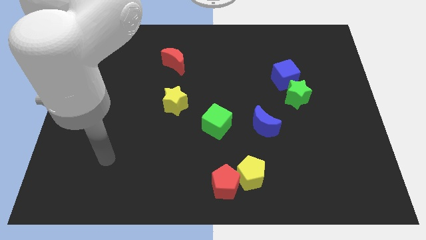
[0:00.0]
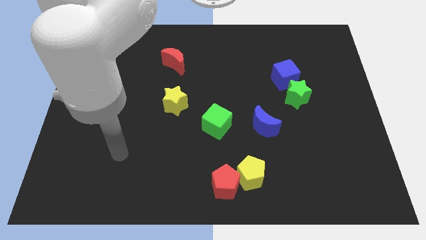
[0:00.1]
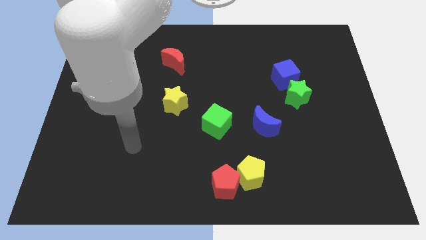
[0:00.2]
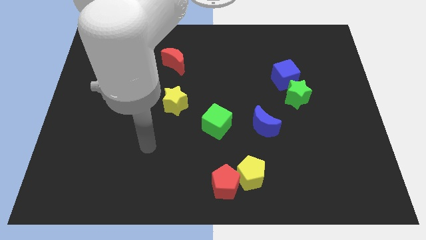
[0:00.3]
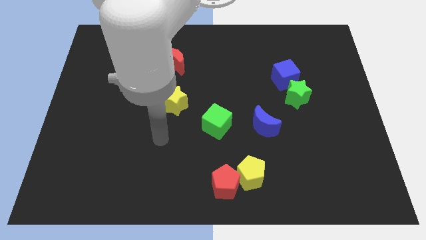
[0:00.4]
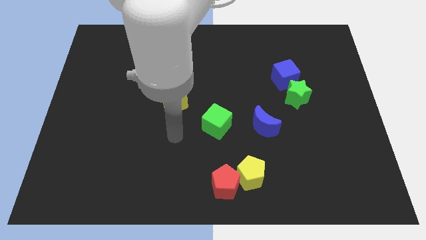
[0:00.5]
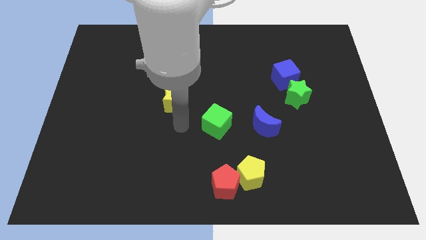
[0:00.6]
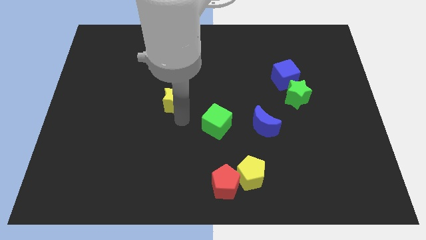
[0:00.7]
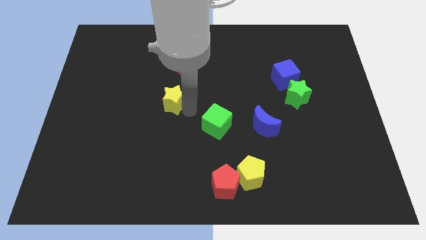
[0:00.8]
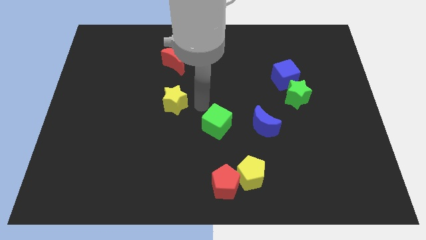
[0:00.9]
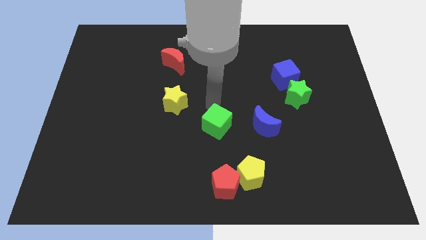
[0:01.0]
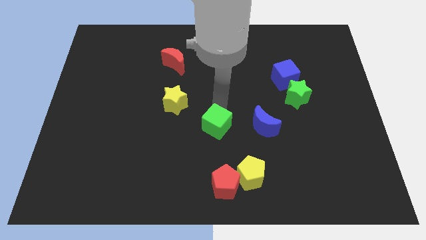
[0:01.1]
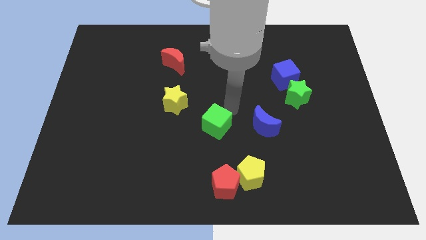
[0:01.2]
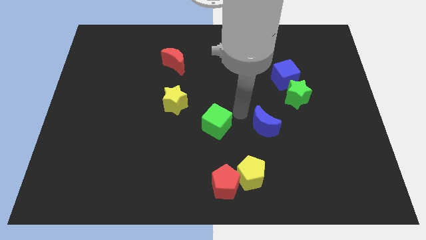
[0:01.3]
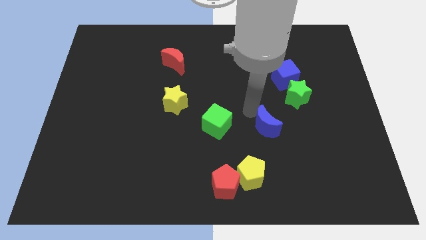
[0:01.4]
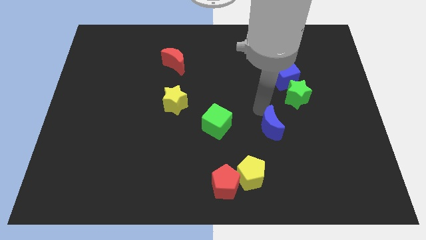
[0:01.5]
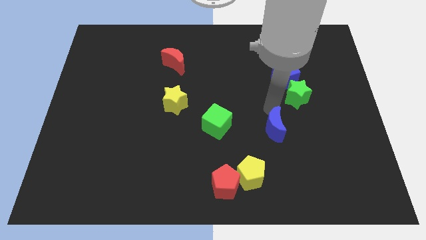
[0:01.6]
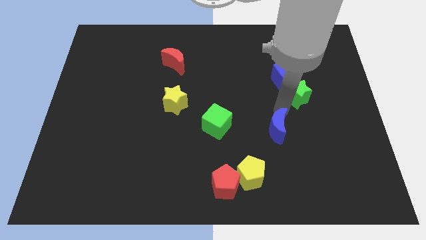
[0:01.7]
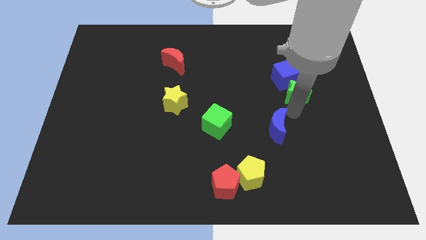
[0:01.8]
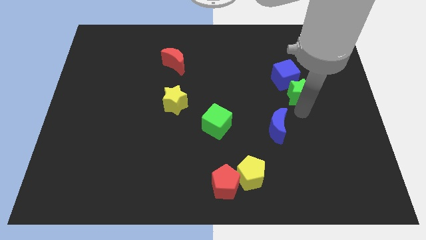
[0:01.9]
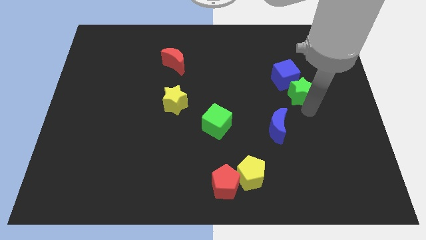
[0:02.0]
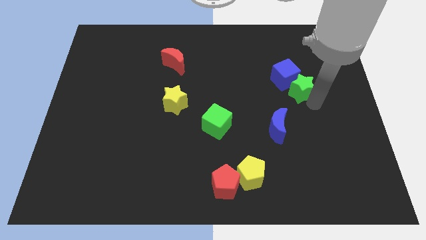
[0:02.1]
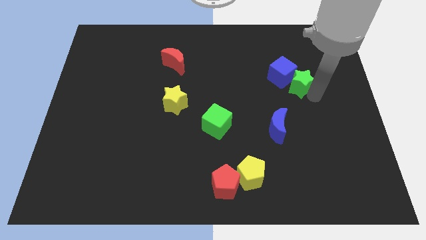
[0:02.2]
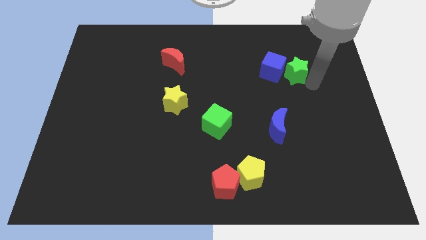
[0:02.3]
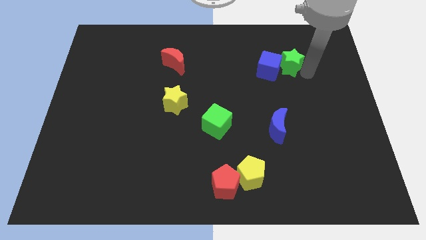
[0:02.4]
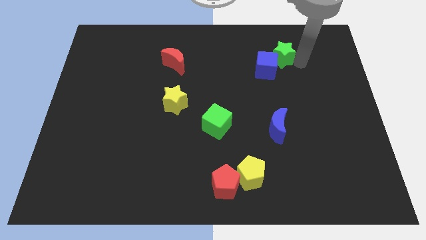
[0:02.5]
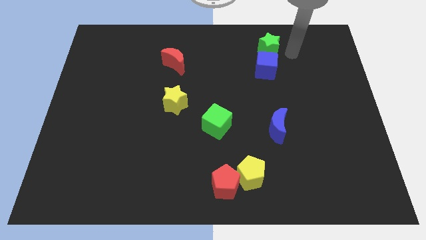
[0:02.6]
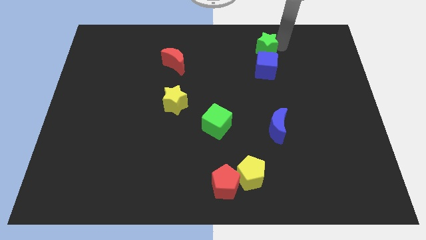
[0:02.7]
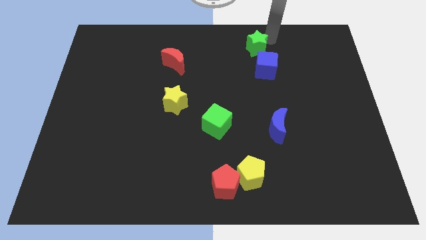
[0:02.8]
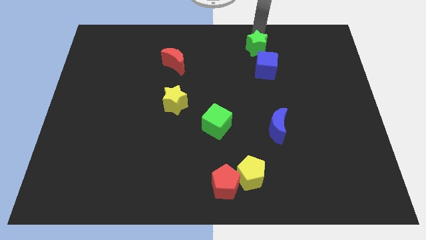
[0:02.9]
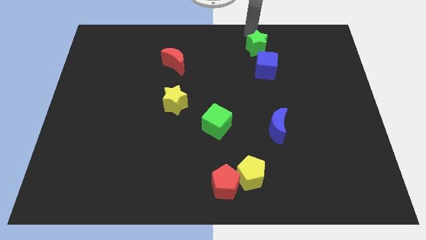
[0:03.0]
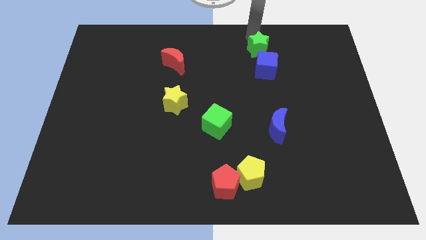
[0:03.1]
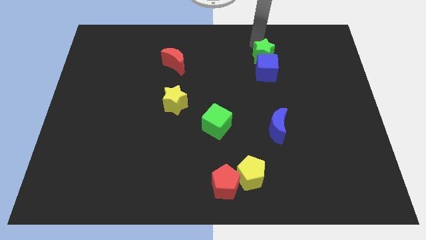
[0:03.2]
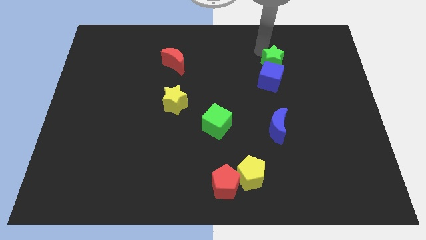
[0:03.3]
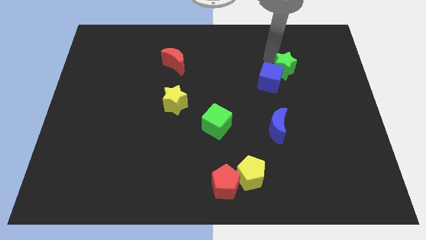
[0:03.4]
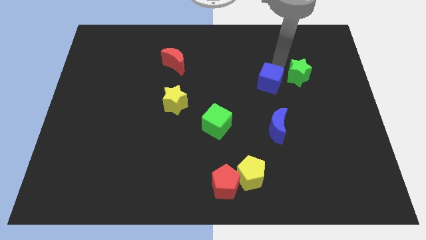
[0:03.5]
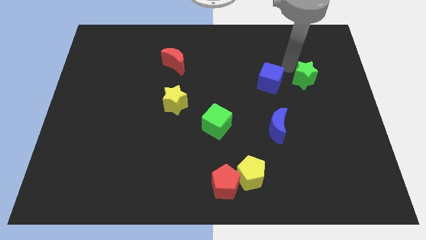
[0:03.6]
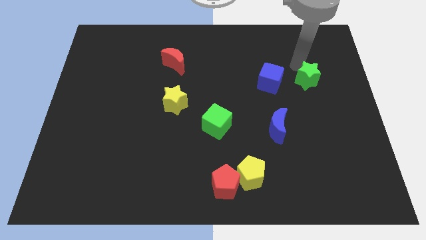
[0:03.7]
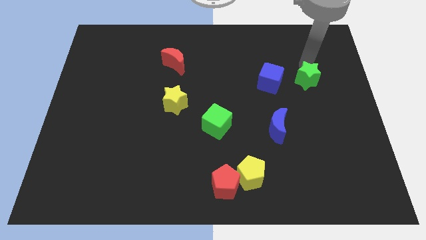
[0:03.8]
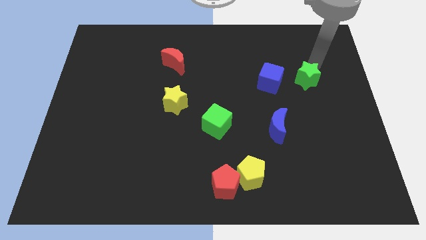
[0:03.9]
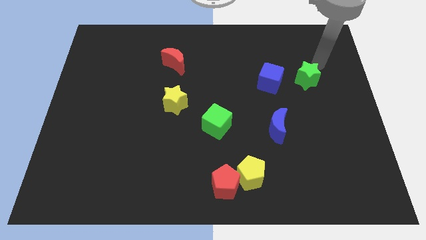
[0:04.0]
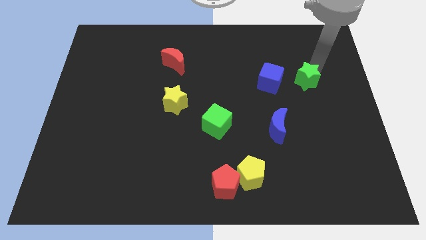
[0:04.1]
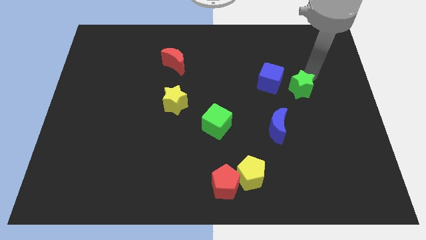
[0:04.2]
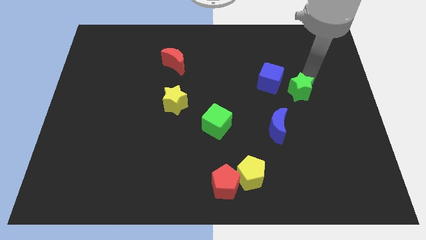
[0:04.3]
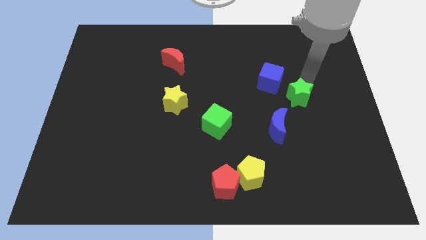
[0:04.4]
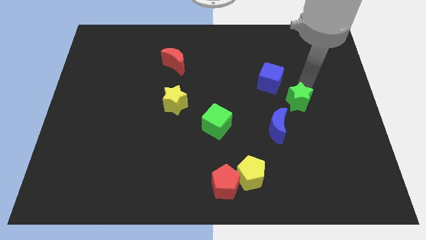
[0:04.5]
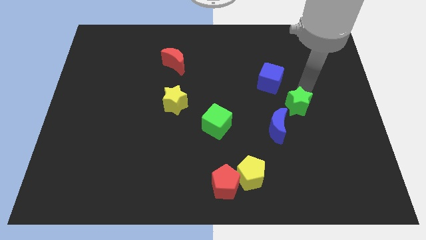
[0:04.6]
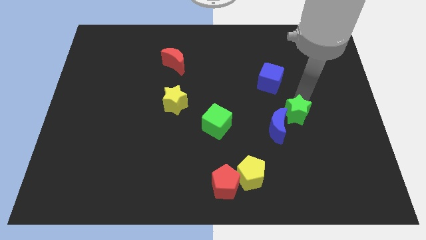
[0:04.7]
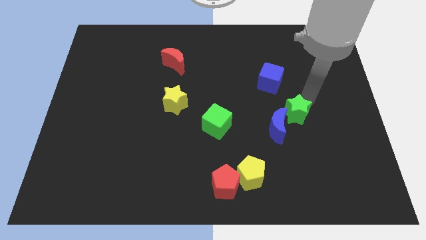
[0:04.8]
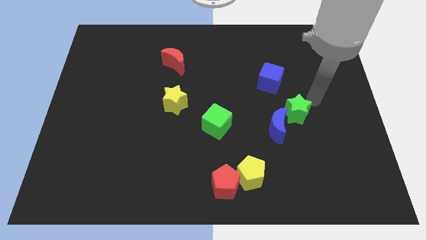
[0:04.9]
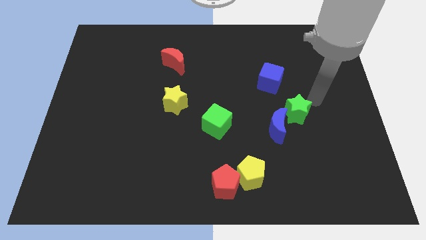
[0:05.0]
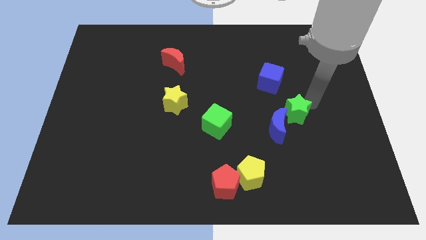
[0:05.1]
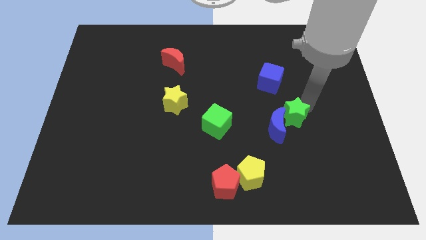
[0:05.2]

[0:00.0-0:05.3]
slide the green star next to the blue moon

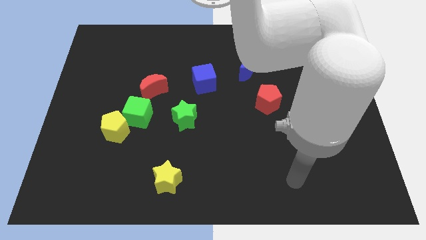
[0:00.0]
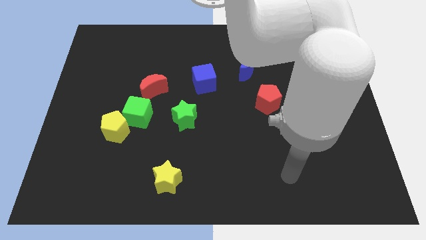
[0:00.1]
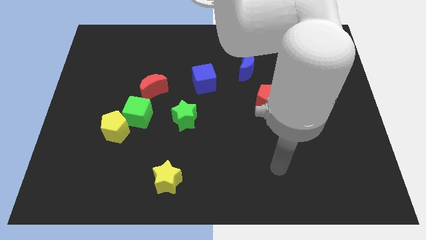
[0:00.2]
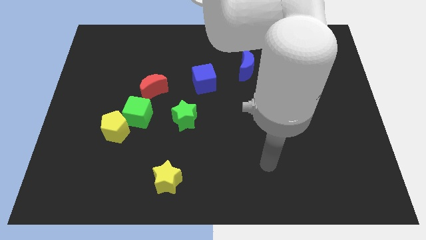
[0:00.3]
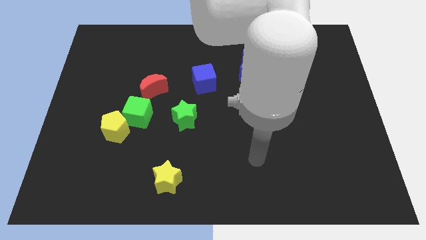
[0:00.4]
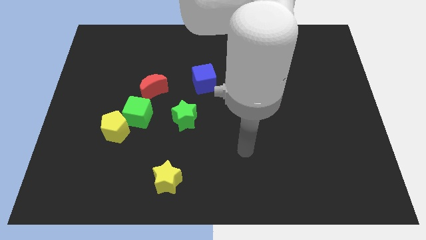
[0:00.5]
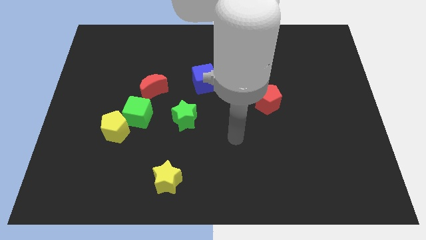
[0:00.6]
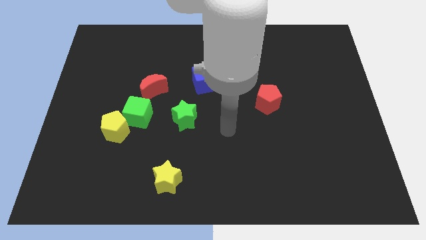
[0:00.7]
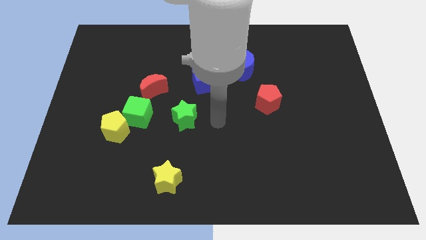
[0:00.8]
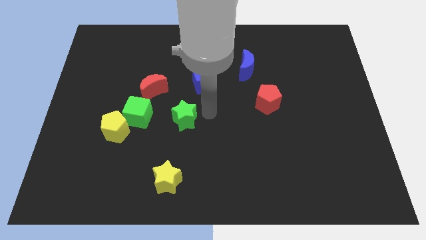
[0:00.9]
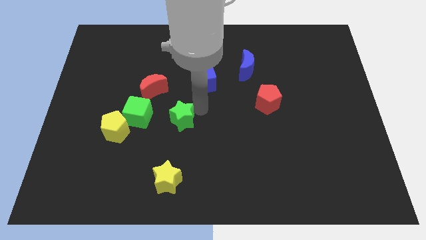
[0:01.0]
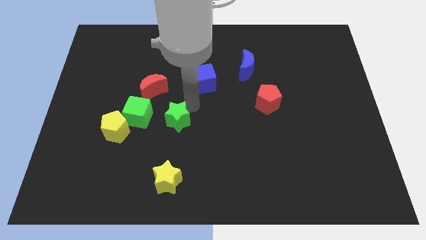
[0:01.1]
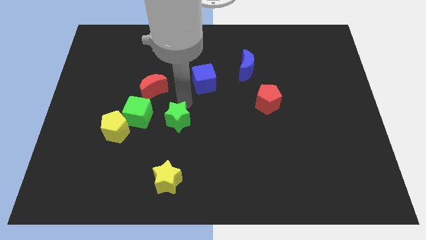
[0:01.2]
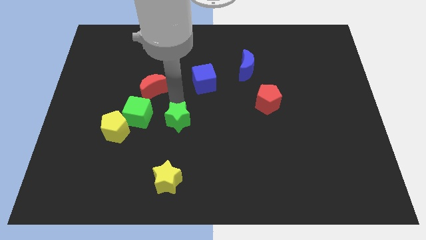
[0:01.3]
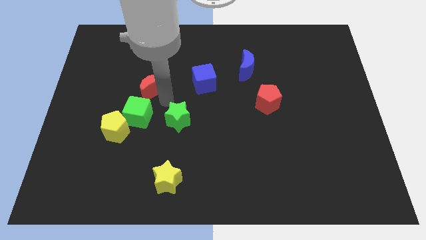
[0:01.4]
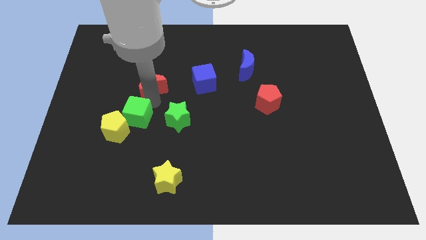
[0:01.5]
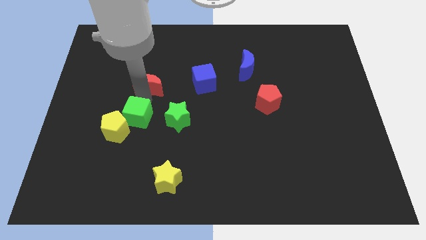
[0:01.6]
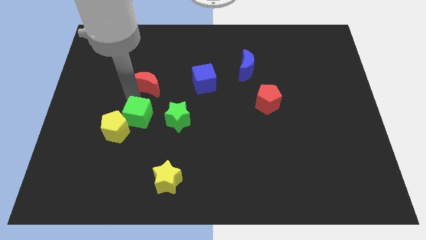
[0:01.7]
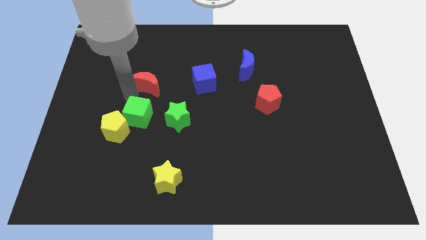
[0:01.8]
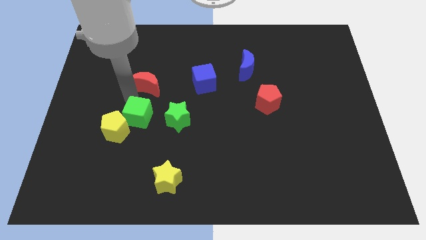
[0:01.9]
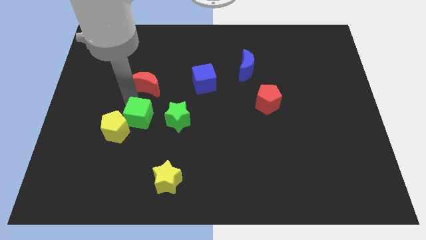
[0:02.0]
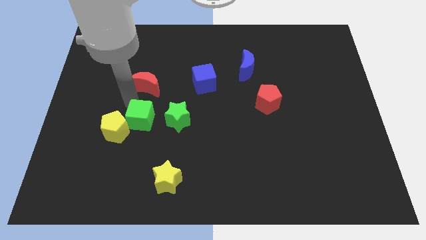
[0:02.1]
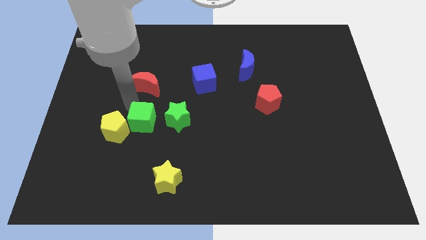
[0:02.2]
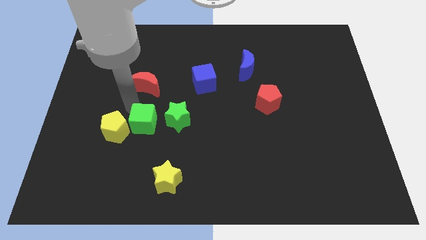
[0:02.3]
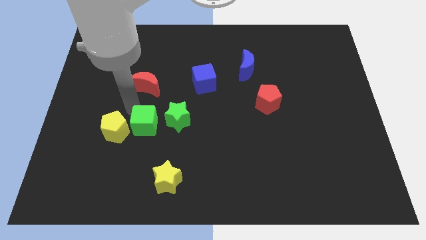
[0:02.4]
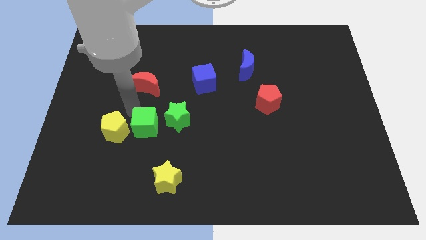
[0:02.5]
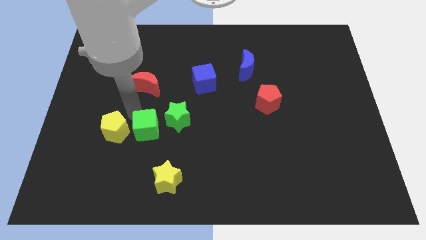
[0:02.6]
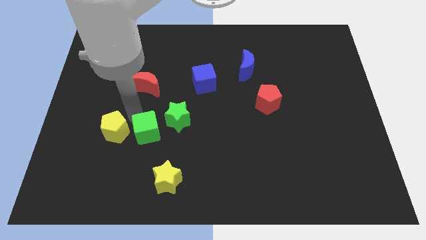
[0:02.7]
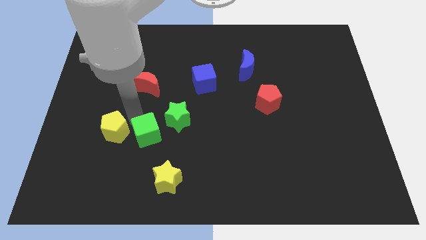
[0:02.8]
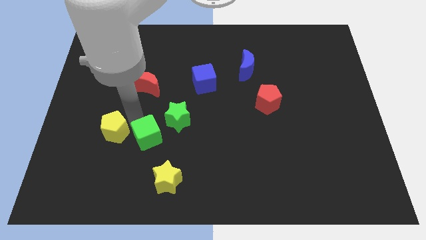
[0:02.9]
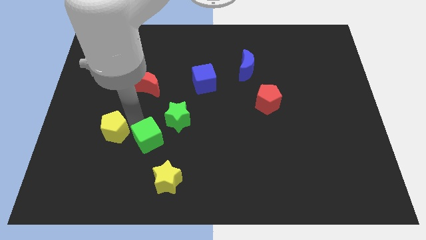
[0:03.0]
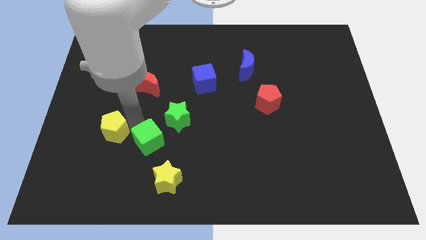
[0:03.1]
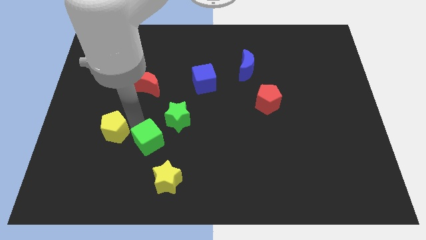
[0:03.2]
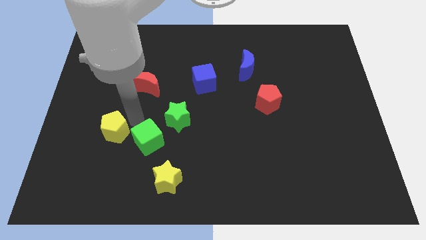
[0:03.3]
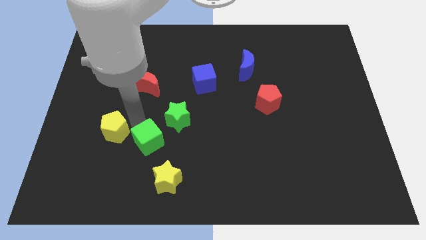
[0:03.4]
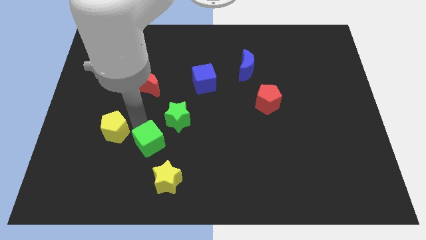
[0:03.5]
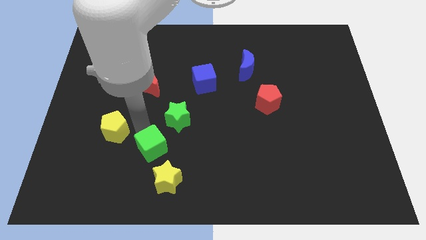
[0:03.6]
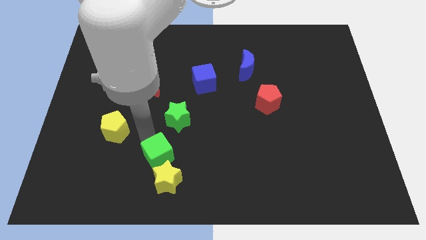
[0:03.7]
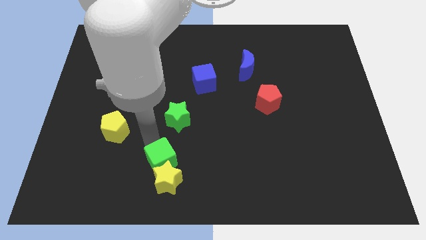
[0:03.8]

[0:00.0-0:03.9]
push the green cube to the yellow star
